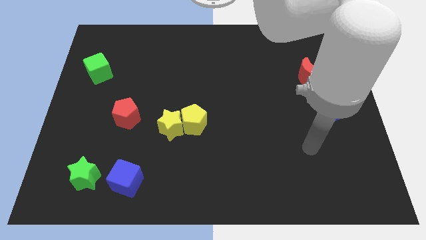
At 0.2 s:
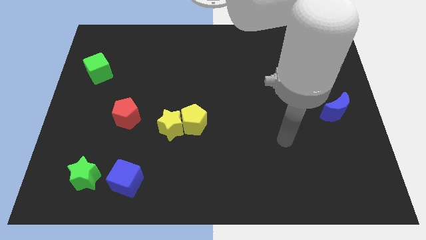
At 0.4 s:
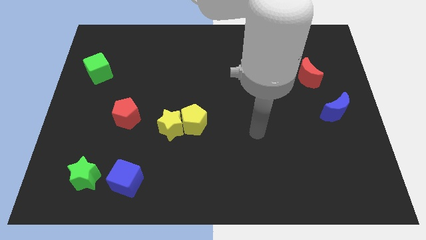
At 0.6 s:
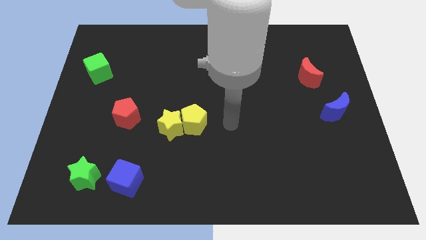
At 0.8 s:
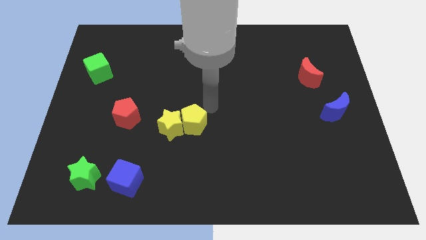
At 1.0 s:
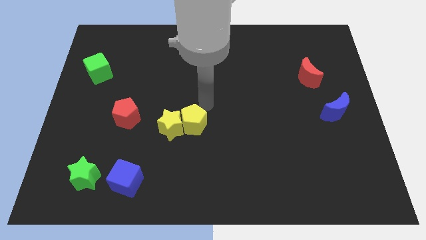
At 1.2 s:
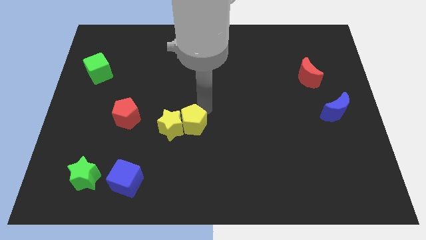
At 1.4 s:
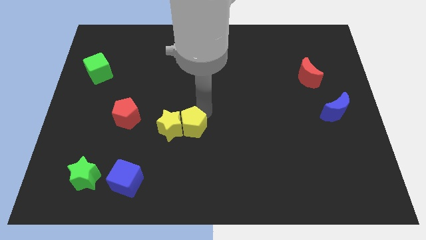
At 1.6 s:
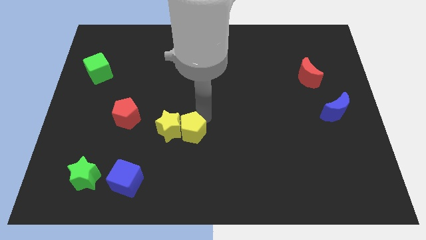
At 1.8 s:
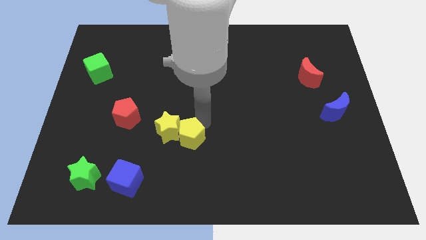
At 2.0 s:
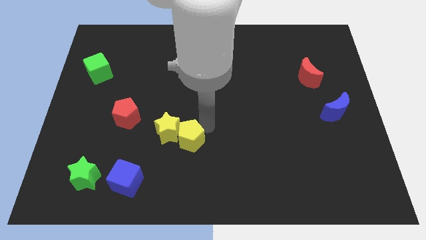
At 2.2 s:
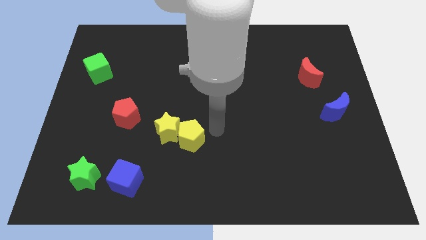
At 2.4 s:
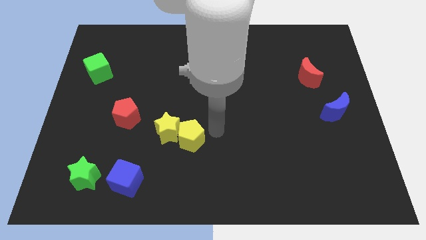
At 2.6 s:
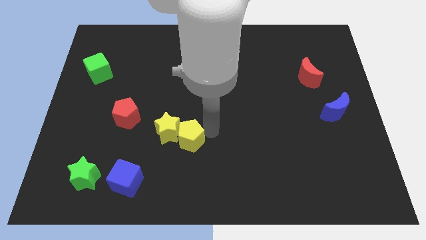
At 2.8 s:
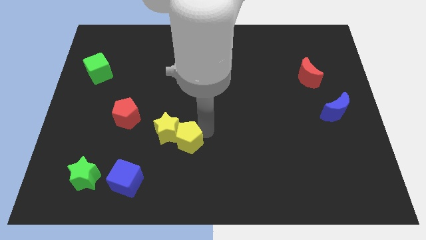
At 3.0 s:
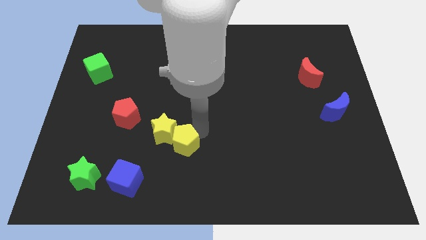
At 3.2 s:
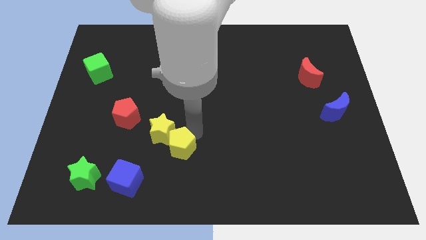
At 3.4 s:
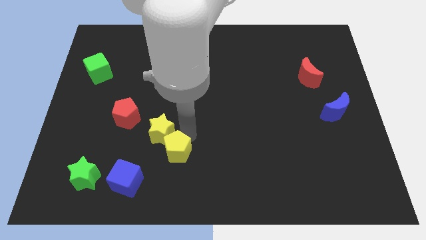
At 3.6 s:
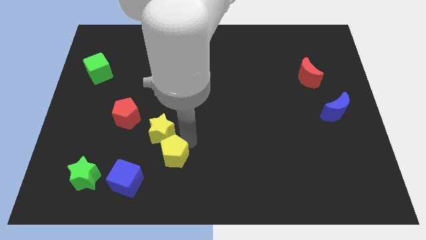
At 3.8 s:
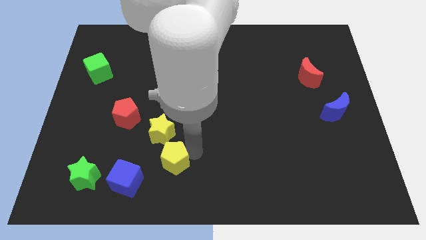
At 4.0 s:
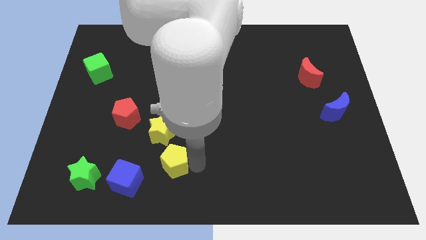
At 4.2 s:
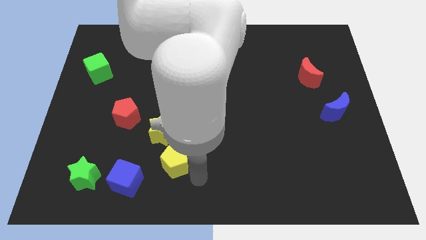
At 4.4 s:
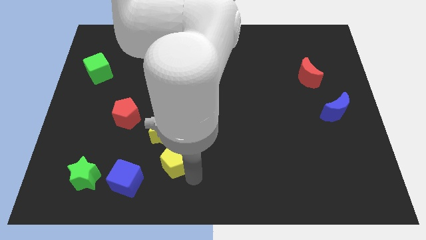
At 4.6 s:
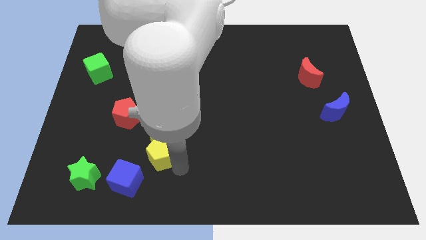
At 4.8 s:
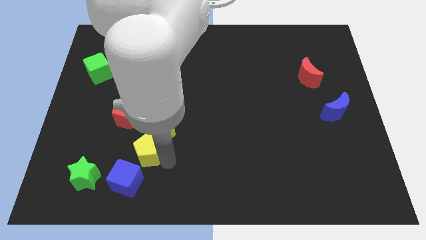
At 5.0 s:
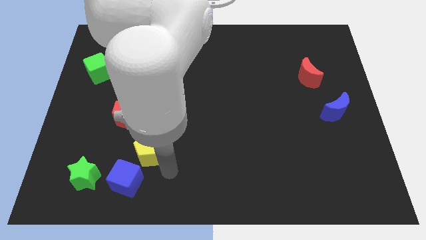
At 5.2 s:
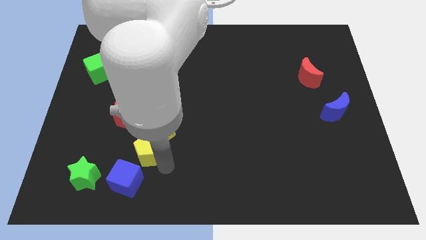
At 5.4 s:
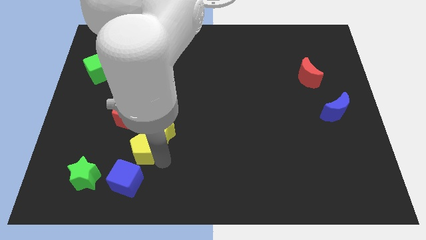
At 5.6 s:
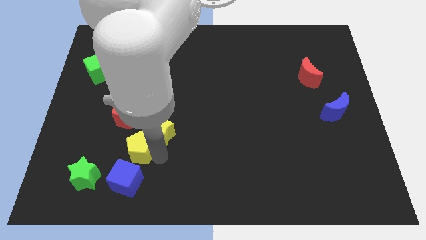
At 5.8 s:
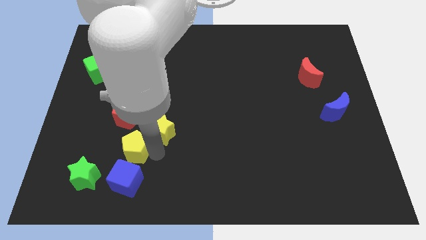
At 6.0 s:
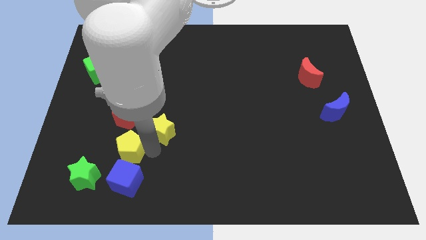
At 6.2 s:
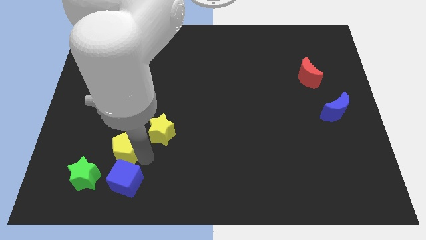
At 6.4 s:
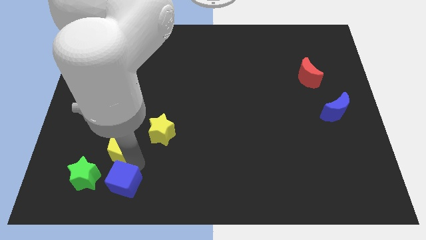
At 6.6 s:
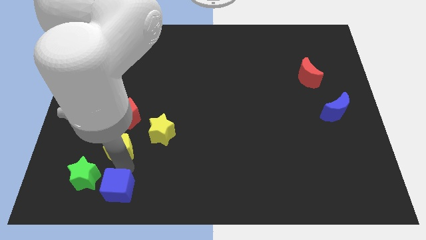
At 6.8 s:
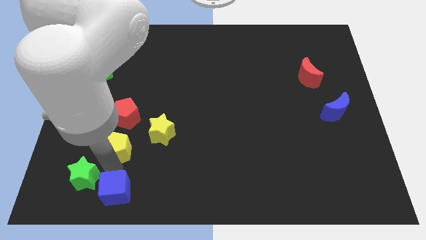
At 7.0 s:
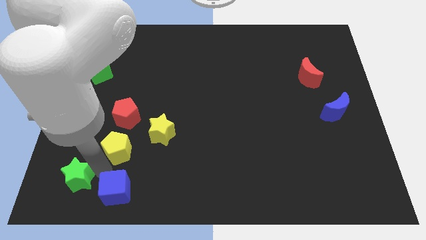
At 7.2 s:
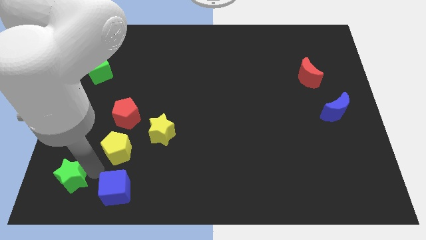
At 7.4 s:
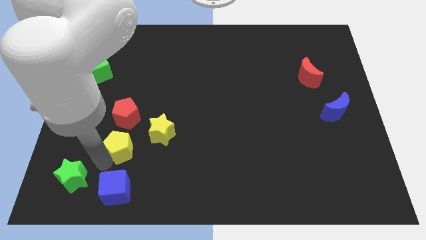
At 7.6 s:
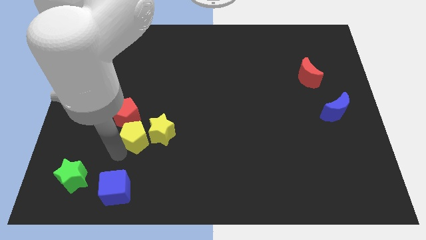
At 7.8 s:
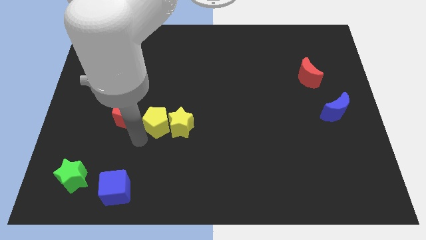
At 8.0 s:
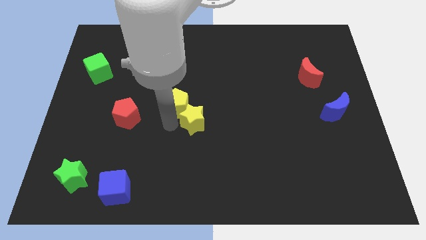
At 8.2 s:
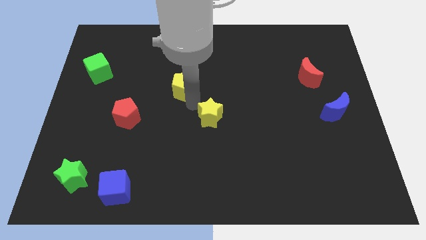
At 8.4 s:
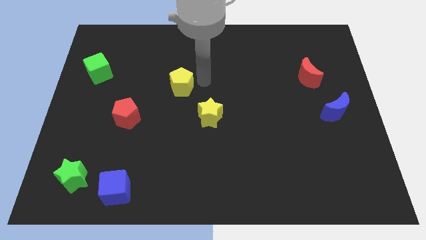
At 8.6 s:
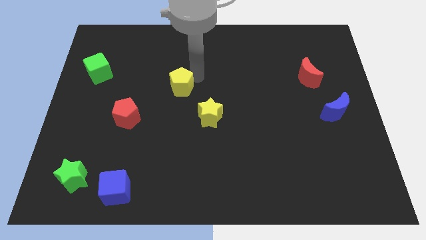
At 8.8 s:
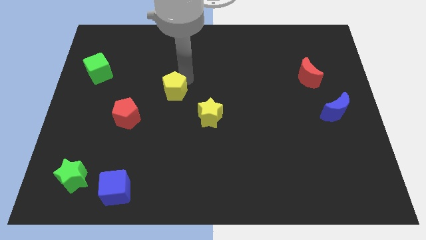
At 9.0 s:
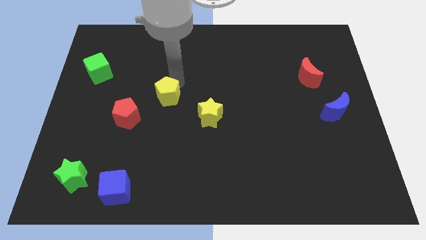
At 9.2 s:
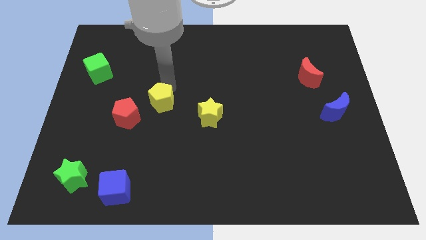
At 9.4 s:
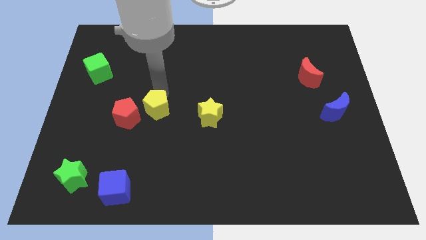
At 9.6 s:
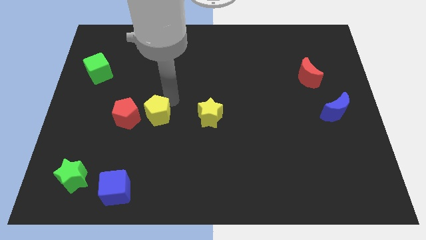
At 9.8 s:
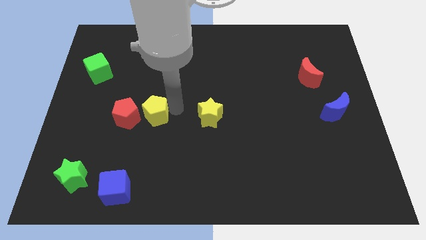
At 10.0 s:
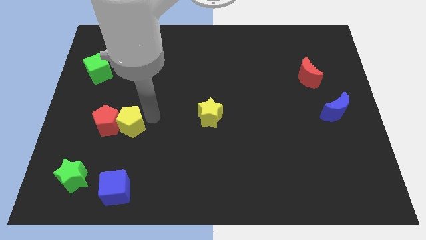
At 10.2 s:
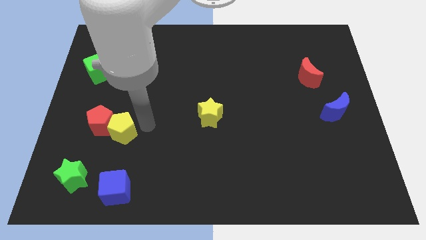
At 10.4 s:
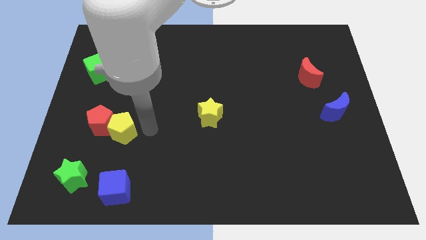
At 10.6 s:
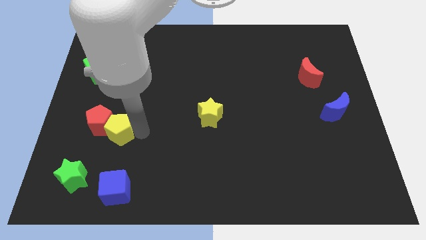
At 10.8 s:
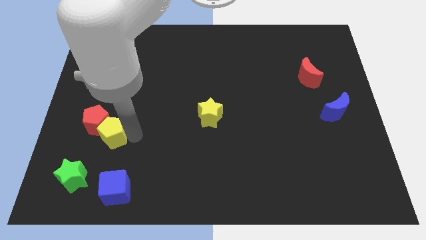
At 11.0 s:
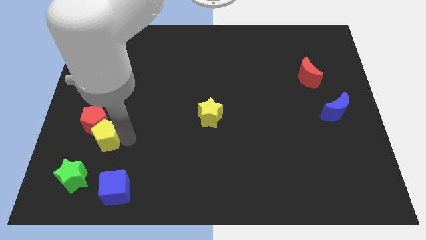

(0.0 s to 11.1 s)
move the yellow pentagon to the top of the green star

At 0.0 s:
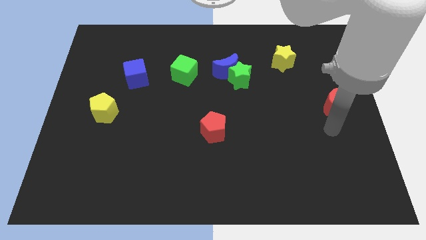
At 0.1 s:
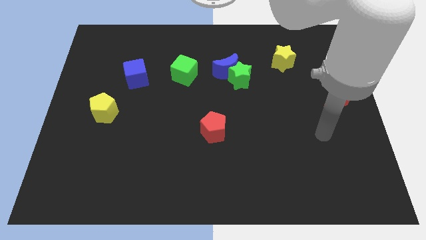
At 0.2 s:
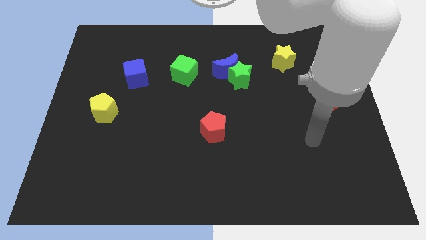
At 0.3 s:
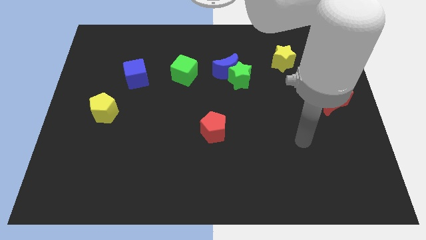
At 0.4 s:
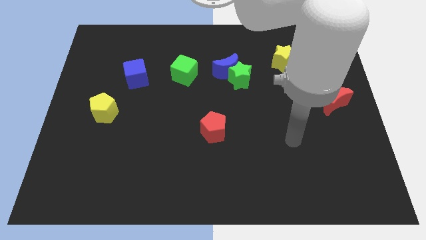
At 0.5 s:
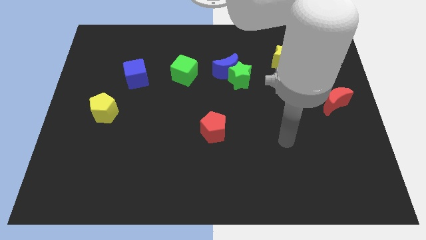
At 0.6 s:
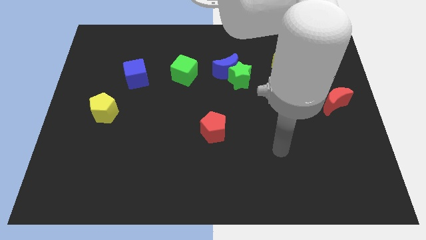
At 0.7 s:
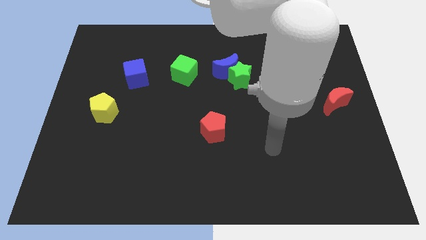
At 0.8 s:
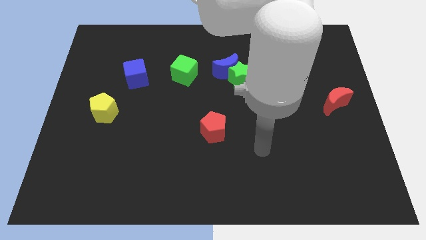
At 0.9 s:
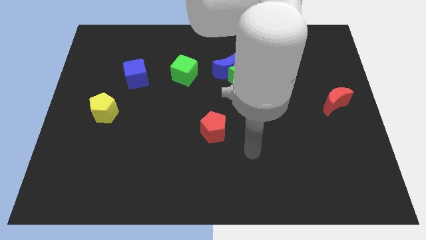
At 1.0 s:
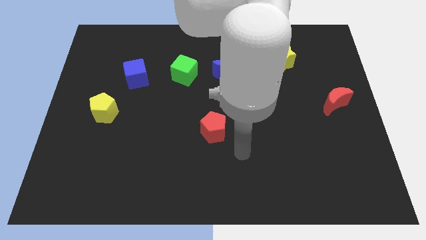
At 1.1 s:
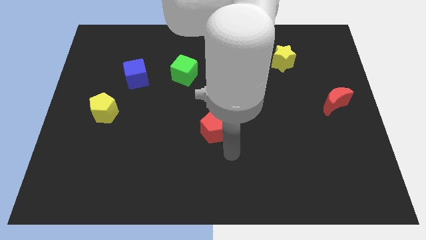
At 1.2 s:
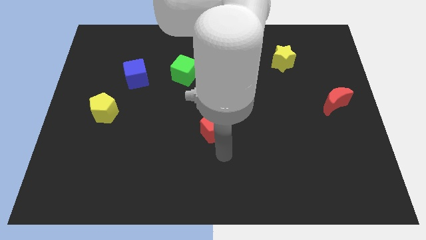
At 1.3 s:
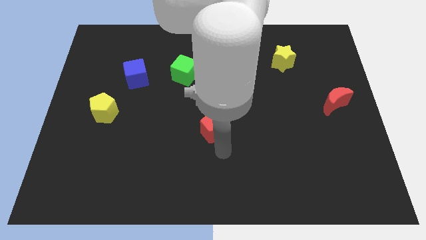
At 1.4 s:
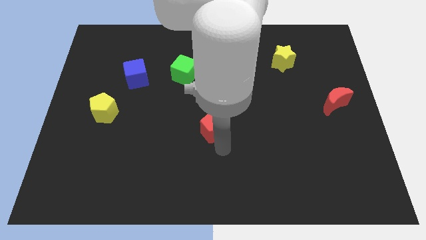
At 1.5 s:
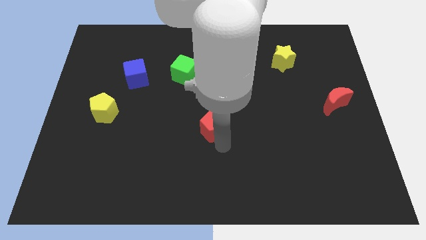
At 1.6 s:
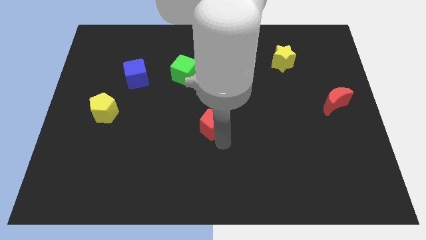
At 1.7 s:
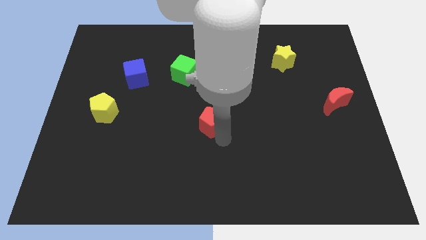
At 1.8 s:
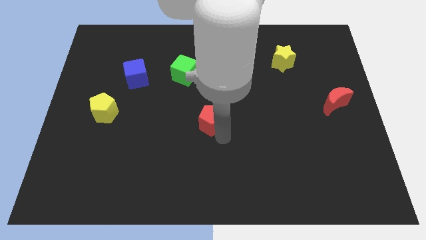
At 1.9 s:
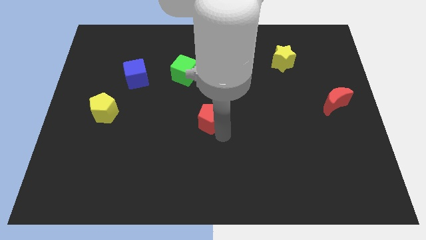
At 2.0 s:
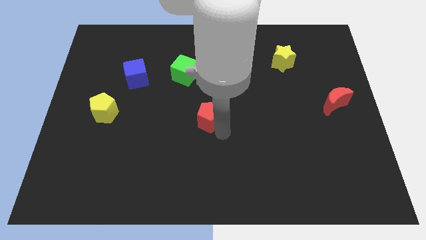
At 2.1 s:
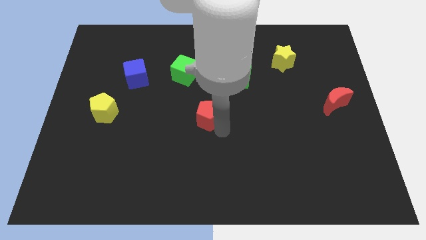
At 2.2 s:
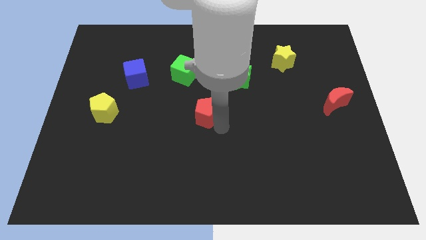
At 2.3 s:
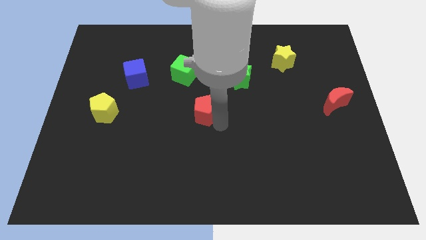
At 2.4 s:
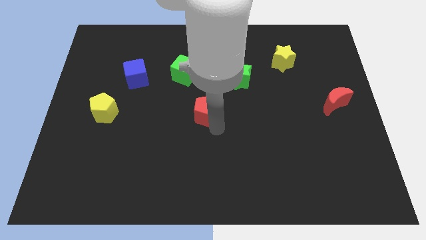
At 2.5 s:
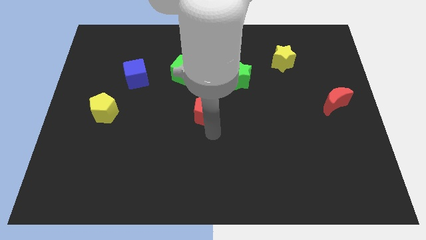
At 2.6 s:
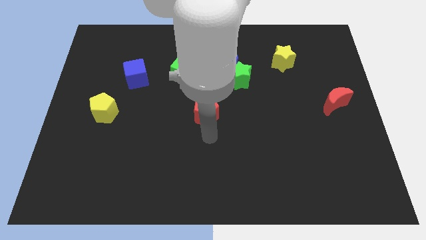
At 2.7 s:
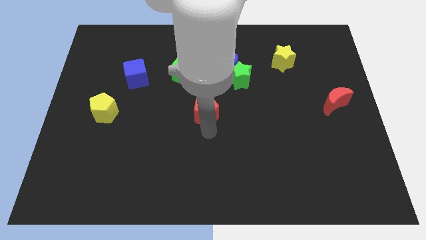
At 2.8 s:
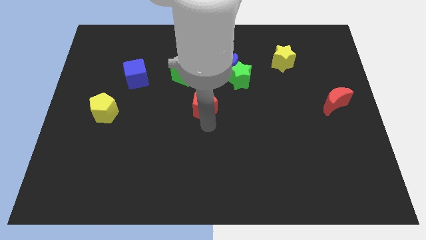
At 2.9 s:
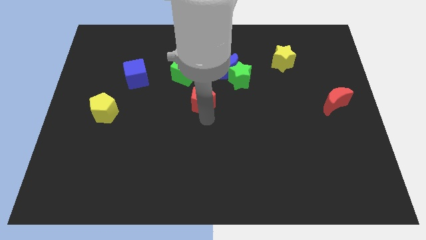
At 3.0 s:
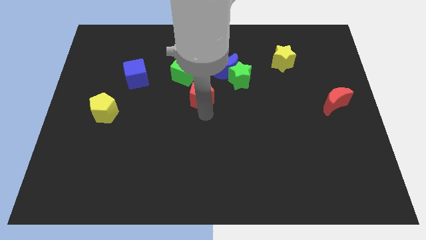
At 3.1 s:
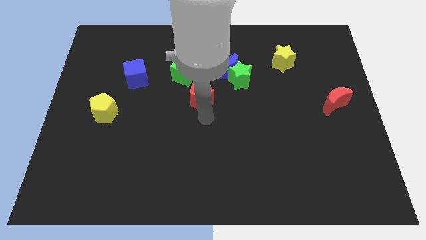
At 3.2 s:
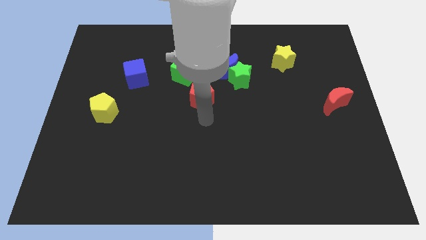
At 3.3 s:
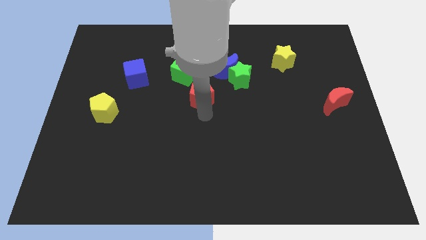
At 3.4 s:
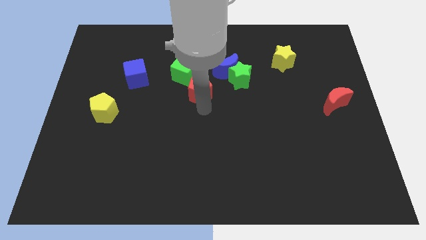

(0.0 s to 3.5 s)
move the red pentagon left of the green star
